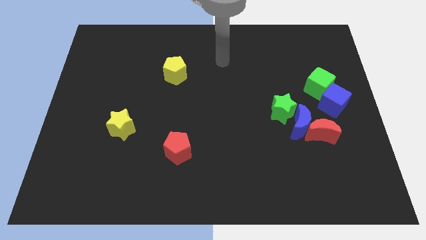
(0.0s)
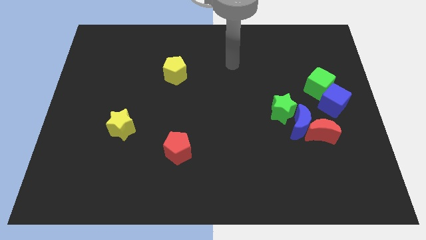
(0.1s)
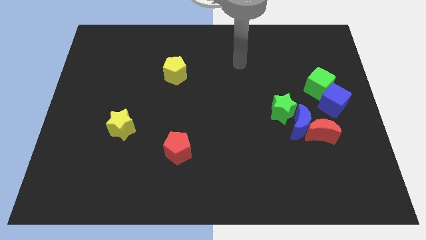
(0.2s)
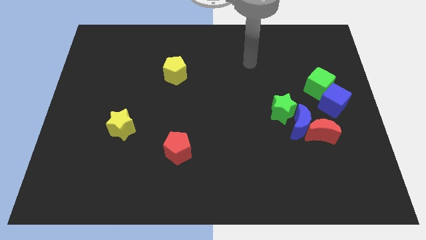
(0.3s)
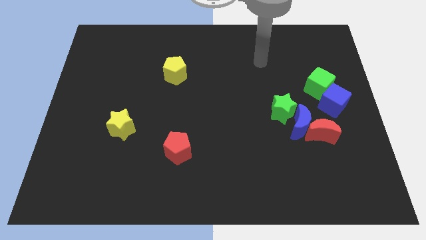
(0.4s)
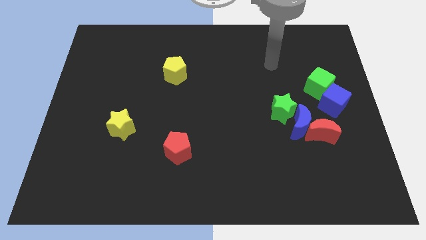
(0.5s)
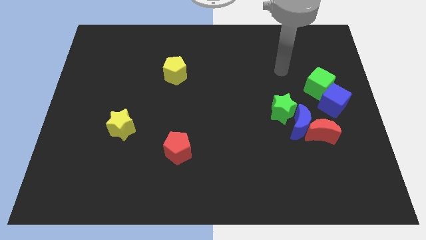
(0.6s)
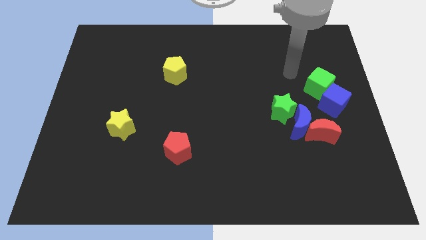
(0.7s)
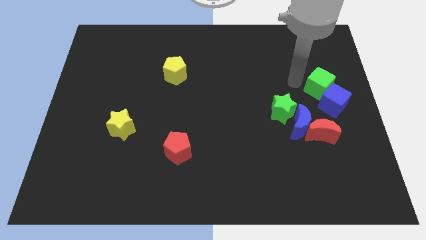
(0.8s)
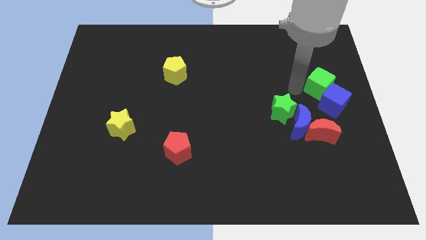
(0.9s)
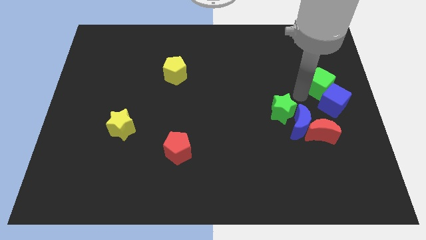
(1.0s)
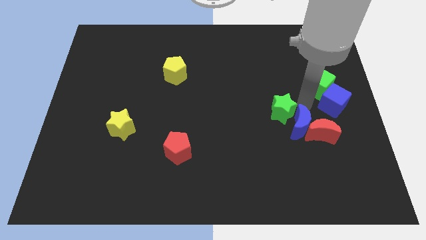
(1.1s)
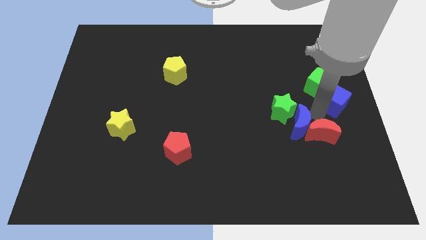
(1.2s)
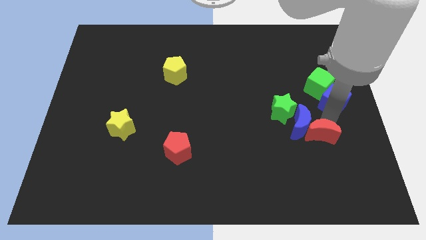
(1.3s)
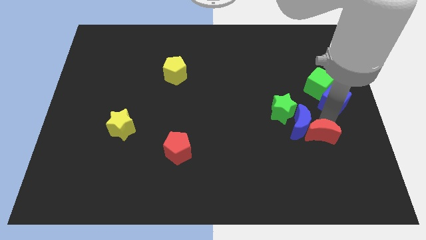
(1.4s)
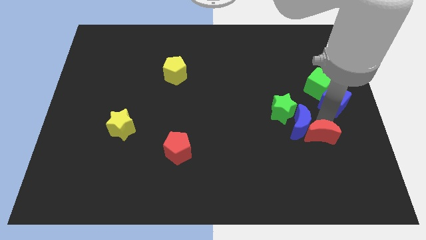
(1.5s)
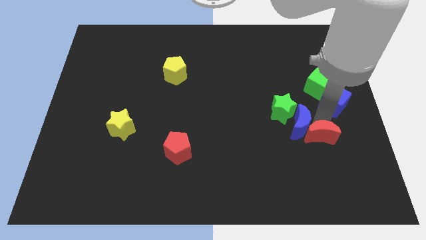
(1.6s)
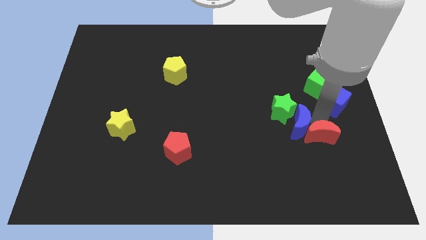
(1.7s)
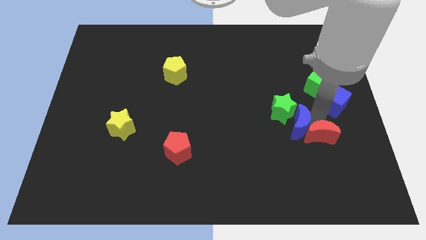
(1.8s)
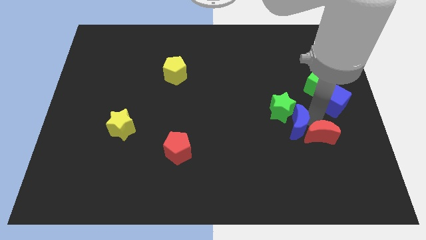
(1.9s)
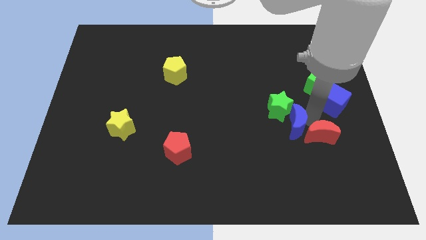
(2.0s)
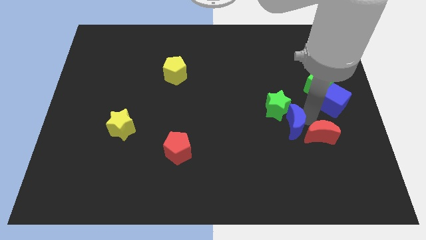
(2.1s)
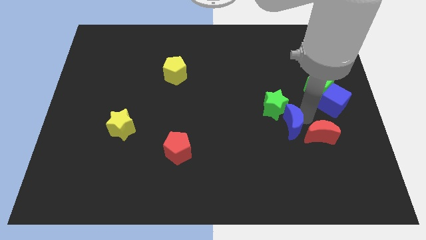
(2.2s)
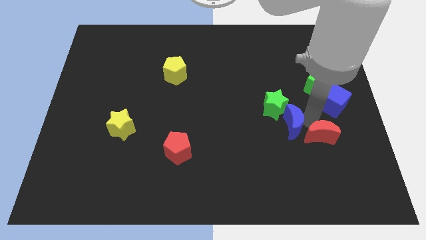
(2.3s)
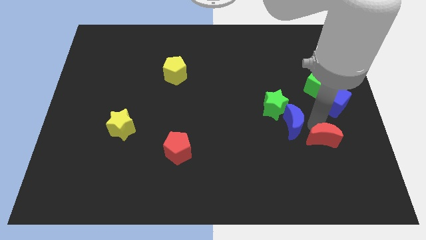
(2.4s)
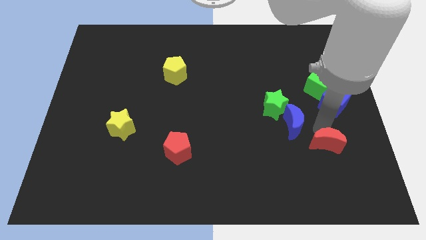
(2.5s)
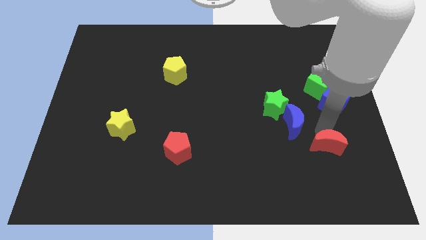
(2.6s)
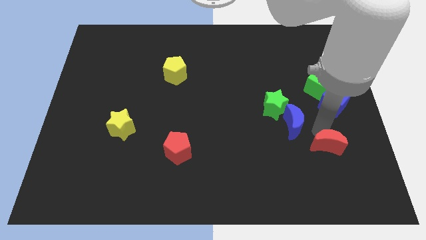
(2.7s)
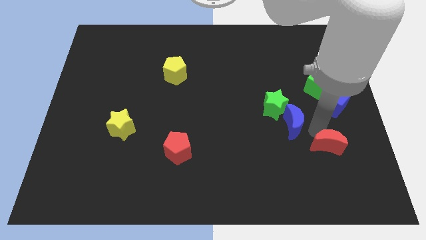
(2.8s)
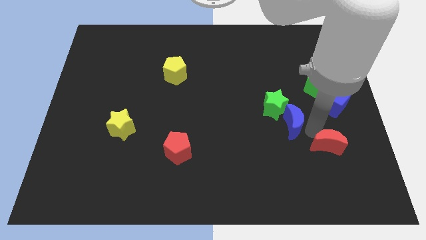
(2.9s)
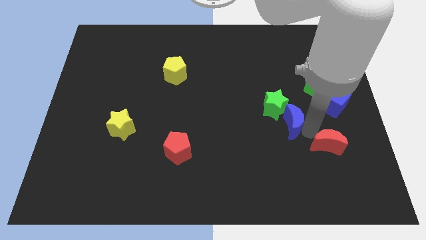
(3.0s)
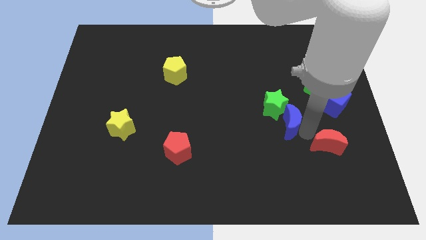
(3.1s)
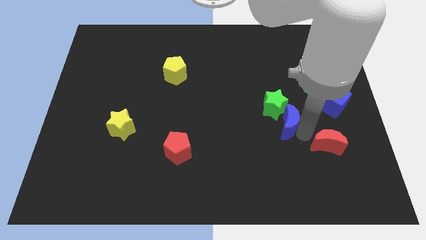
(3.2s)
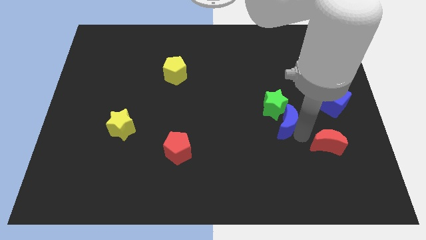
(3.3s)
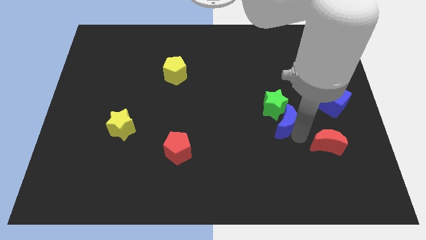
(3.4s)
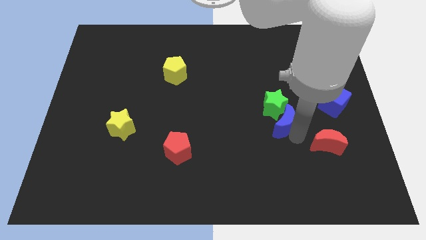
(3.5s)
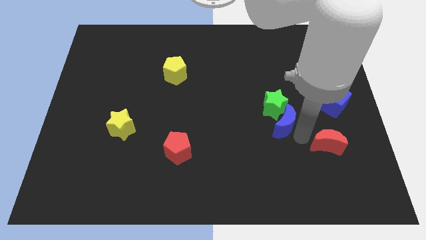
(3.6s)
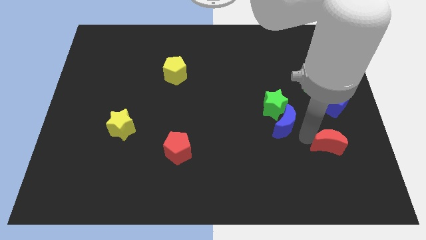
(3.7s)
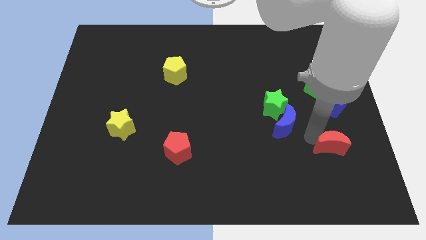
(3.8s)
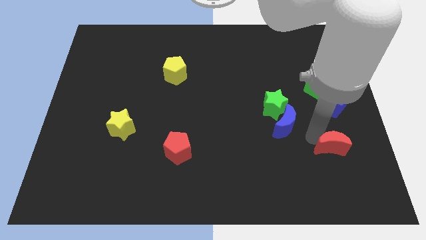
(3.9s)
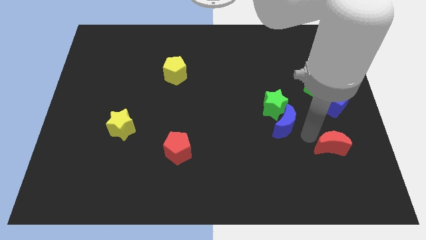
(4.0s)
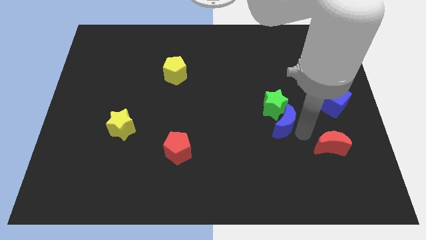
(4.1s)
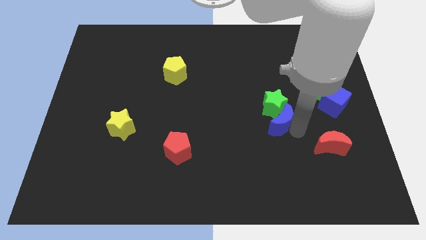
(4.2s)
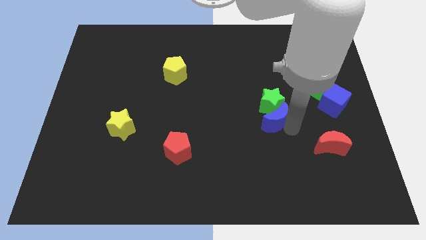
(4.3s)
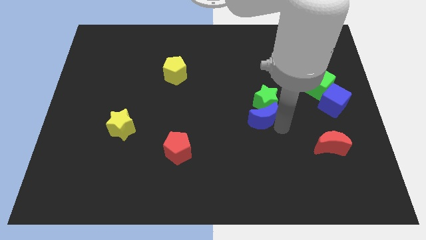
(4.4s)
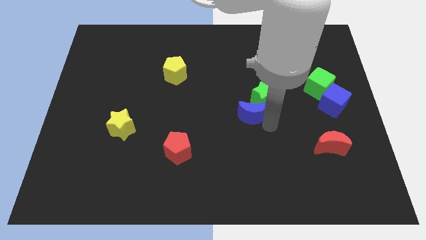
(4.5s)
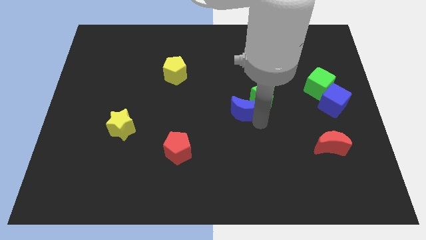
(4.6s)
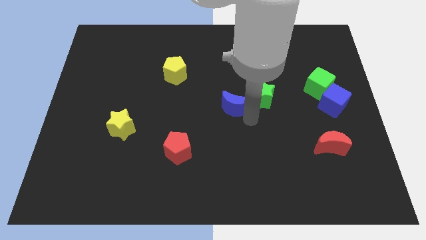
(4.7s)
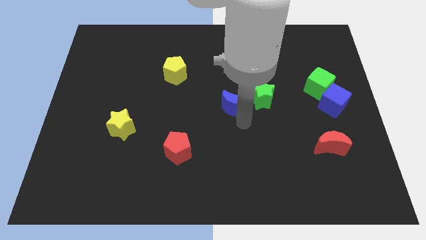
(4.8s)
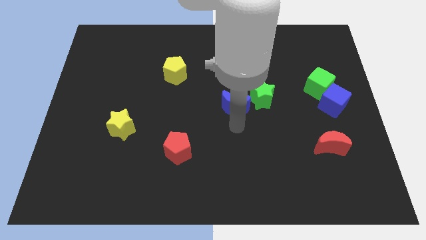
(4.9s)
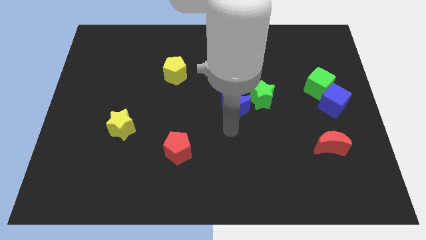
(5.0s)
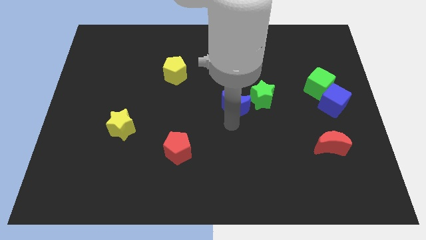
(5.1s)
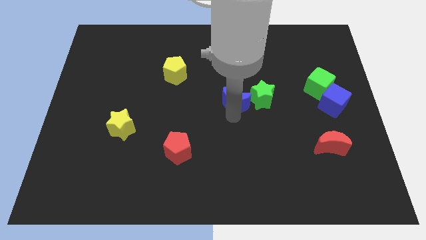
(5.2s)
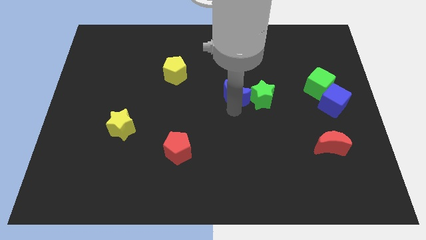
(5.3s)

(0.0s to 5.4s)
push the blue moon diagonally up and to the left of the green star

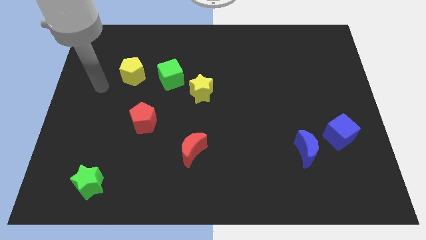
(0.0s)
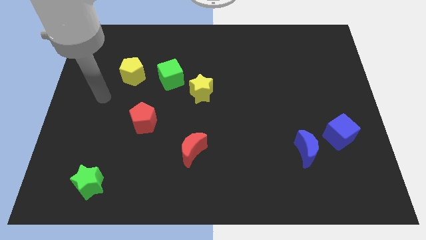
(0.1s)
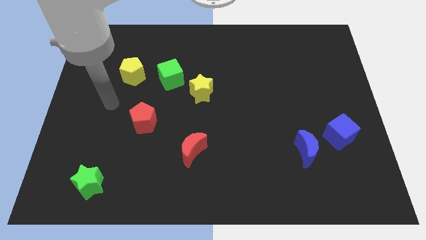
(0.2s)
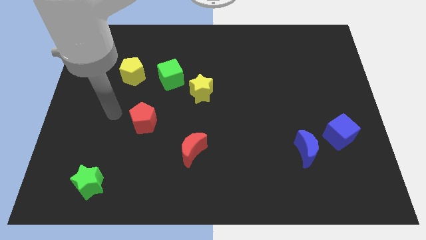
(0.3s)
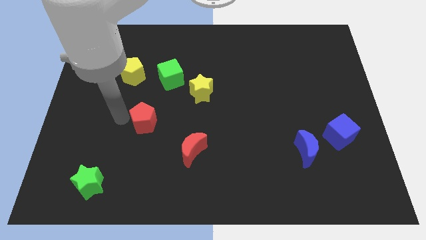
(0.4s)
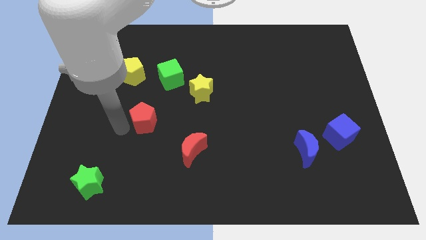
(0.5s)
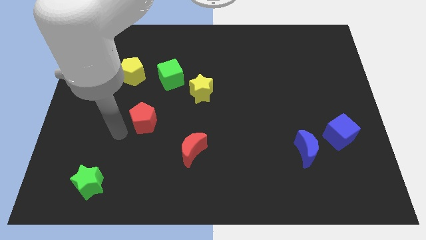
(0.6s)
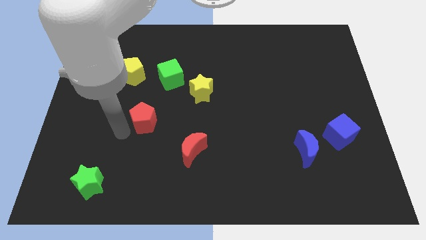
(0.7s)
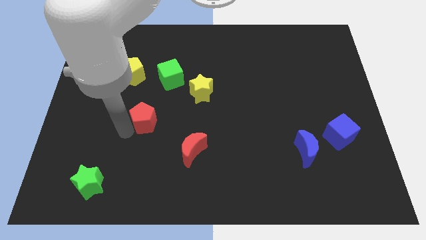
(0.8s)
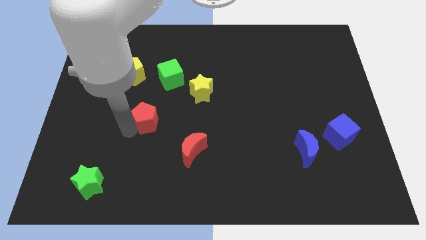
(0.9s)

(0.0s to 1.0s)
push the red pentagon to the bottom side of the green cube
